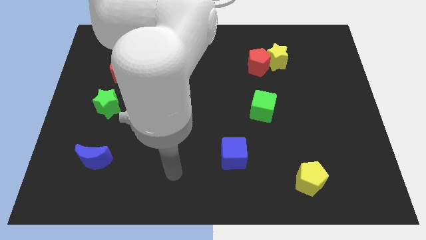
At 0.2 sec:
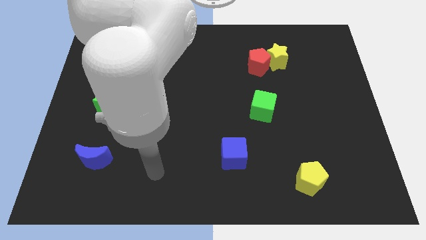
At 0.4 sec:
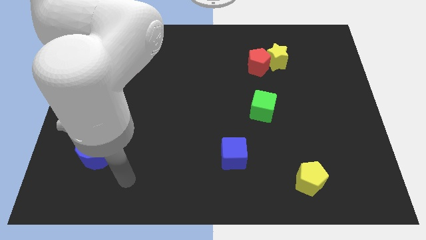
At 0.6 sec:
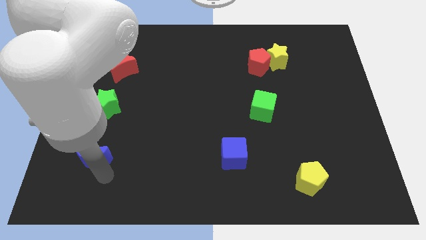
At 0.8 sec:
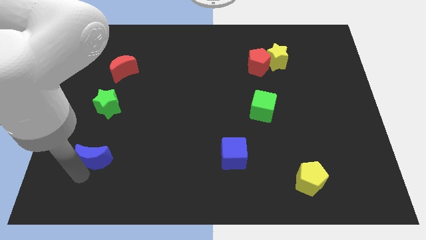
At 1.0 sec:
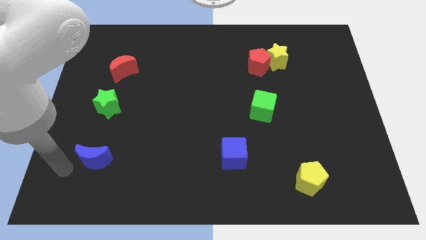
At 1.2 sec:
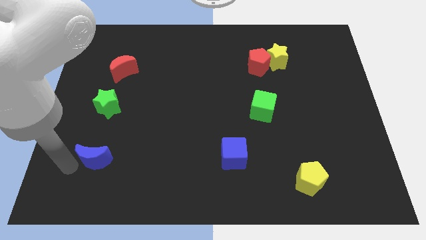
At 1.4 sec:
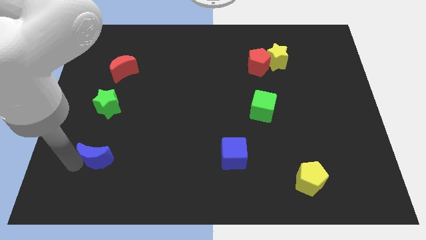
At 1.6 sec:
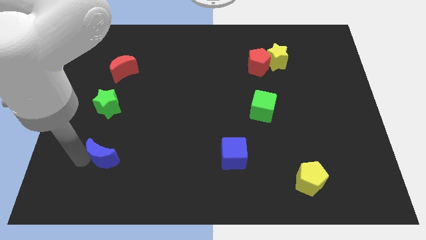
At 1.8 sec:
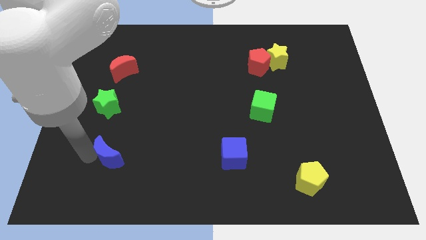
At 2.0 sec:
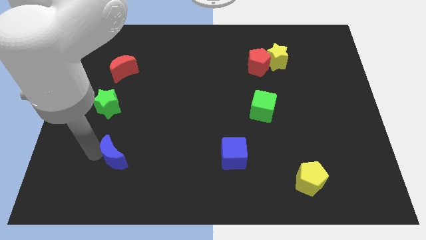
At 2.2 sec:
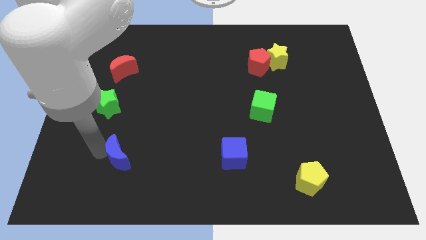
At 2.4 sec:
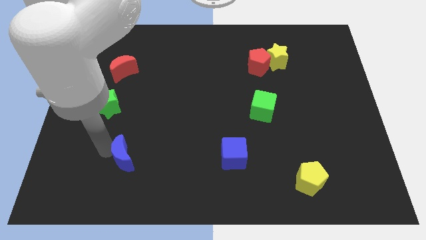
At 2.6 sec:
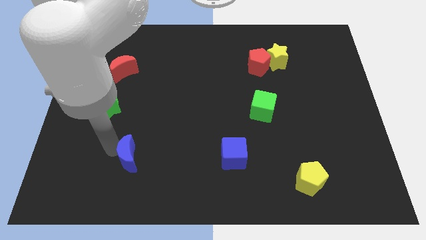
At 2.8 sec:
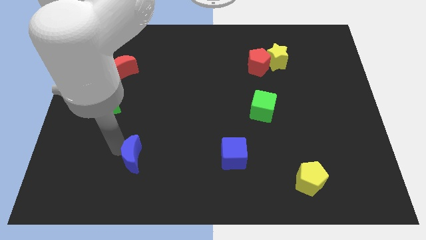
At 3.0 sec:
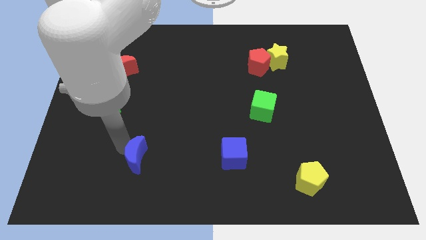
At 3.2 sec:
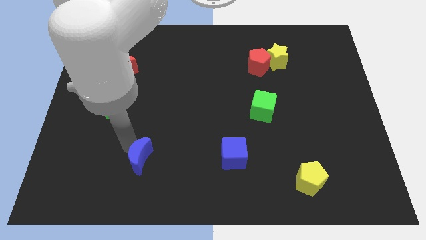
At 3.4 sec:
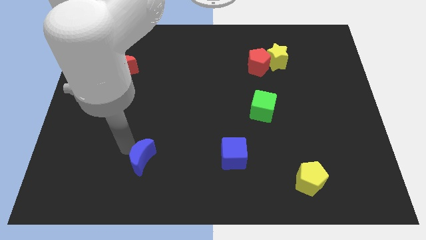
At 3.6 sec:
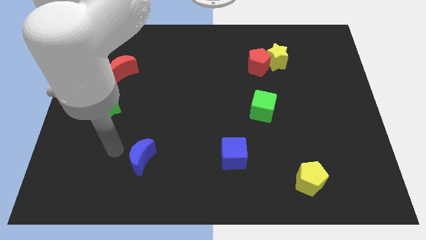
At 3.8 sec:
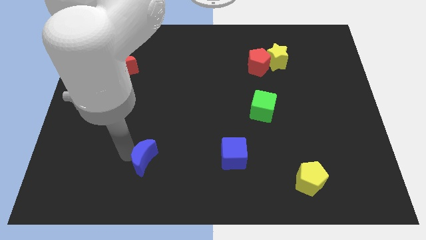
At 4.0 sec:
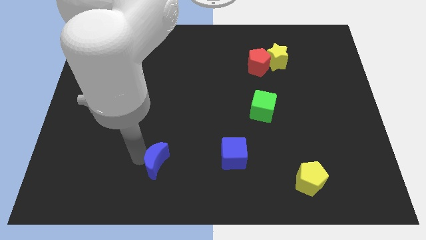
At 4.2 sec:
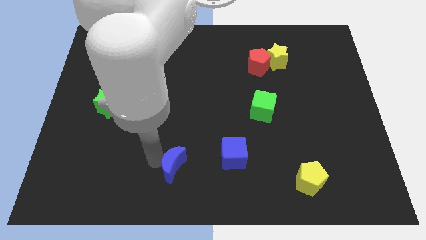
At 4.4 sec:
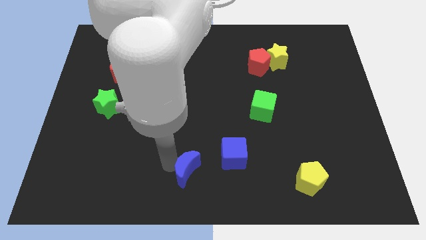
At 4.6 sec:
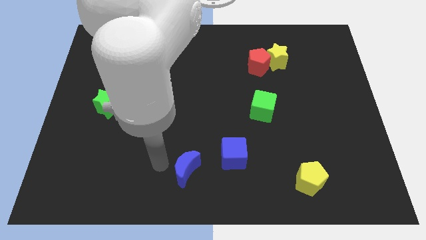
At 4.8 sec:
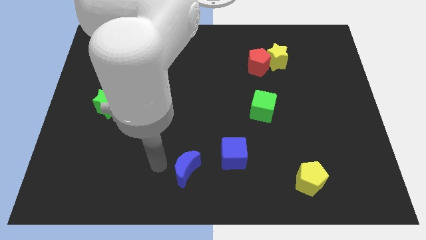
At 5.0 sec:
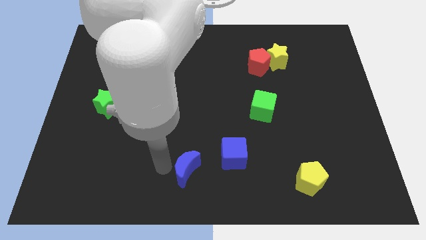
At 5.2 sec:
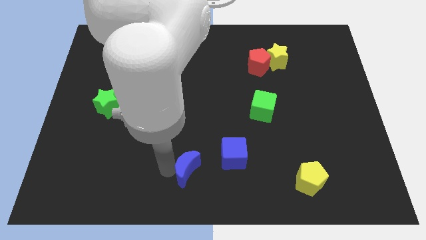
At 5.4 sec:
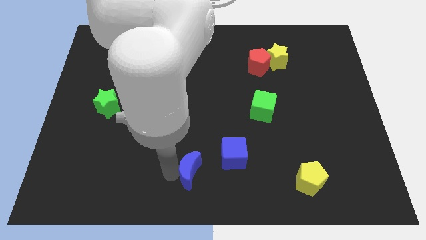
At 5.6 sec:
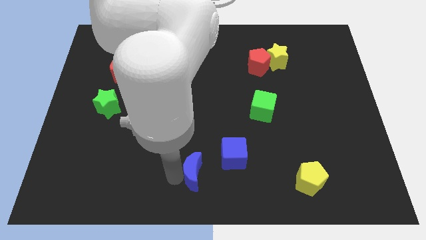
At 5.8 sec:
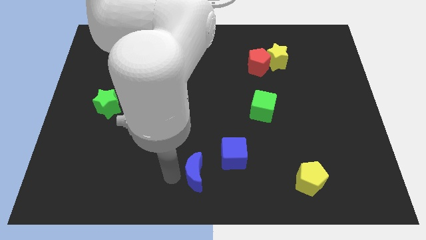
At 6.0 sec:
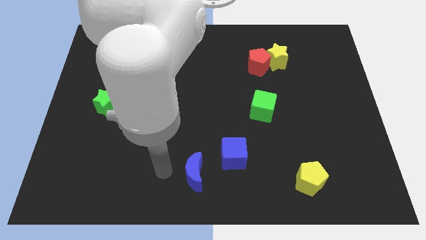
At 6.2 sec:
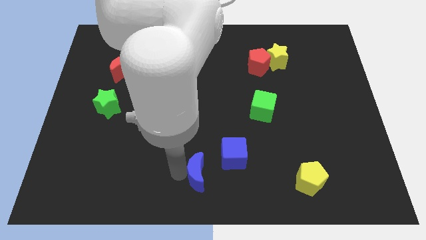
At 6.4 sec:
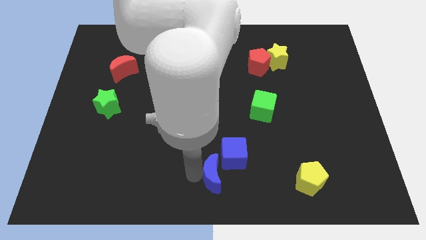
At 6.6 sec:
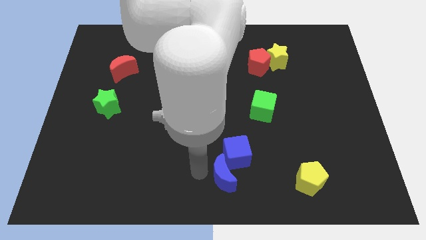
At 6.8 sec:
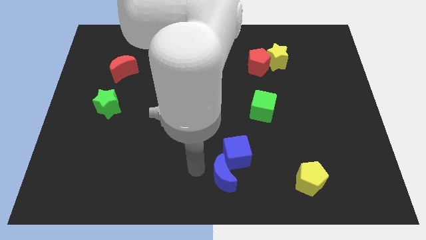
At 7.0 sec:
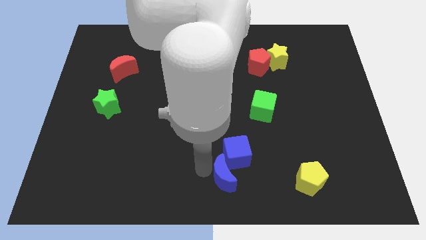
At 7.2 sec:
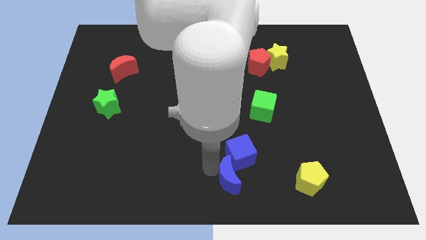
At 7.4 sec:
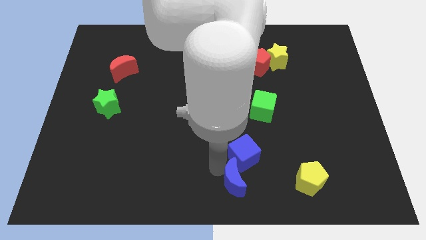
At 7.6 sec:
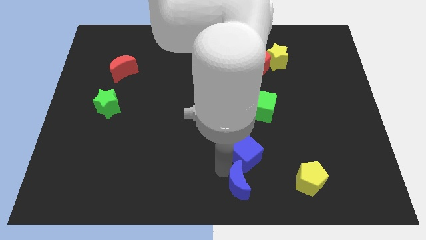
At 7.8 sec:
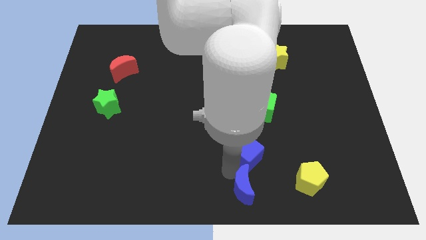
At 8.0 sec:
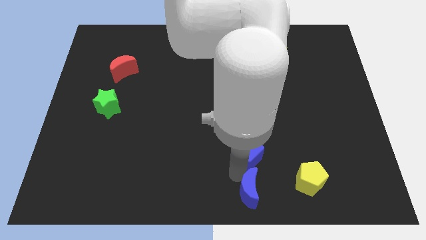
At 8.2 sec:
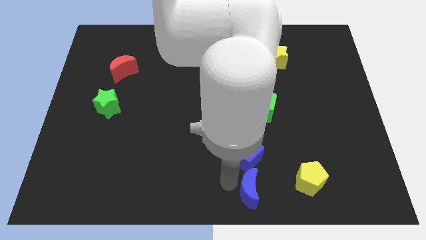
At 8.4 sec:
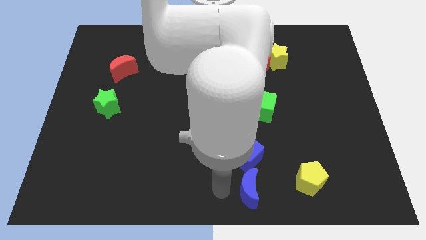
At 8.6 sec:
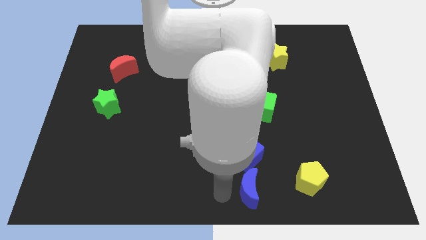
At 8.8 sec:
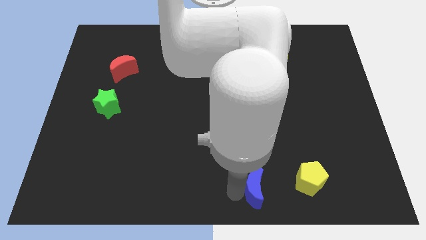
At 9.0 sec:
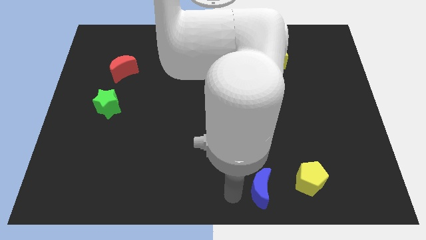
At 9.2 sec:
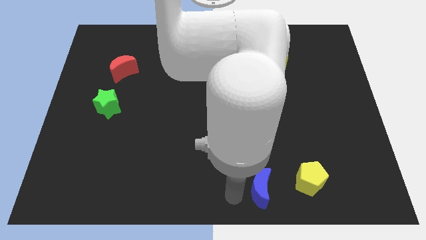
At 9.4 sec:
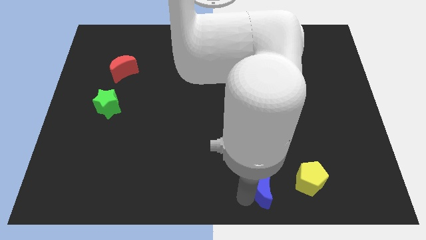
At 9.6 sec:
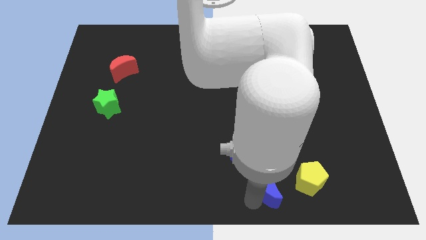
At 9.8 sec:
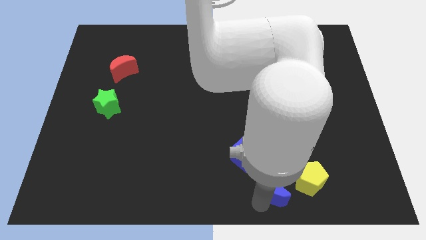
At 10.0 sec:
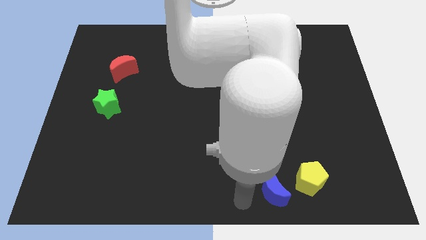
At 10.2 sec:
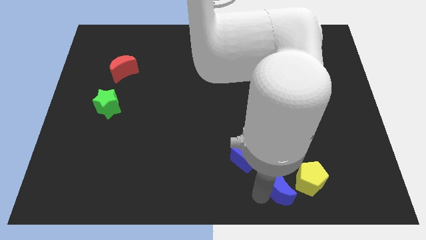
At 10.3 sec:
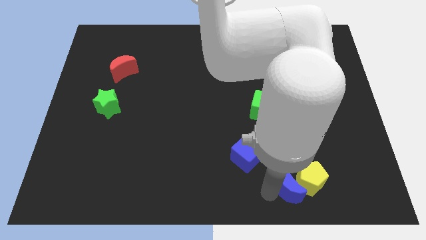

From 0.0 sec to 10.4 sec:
put the blue moon close to the yellow pentagon
